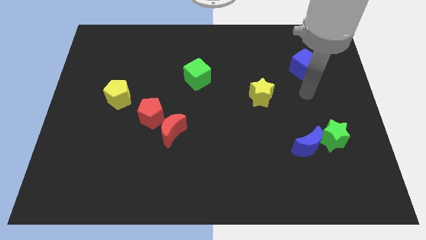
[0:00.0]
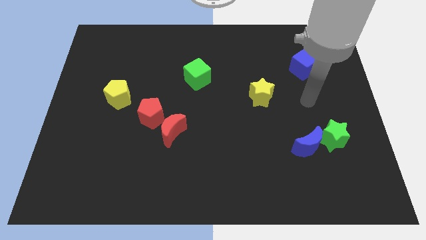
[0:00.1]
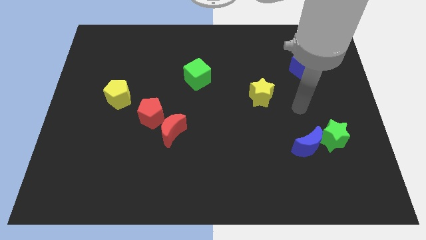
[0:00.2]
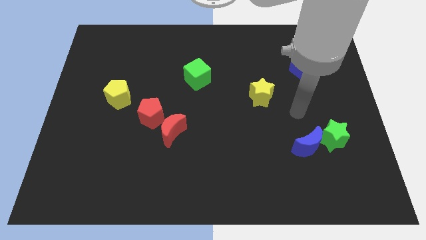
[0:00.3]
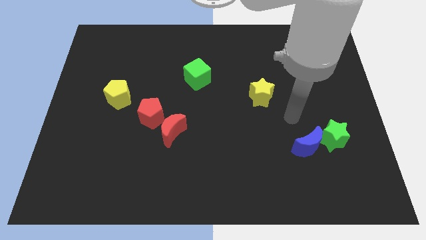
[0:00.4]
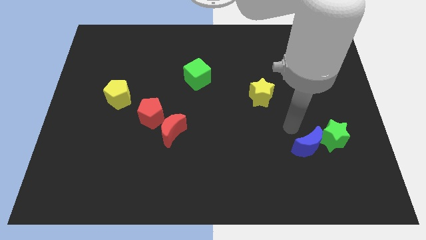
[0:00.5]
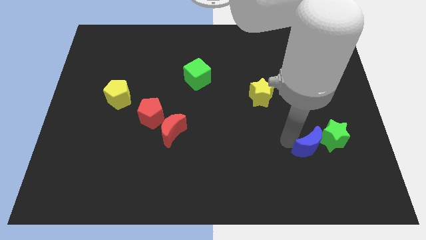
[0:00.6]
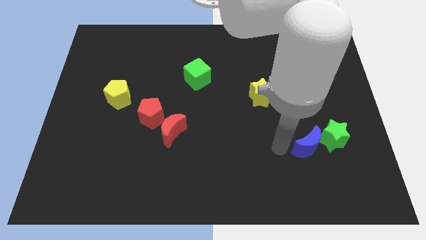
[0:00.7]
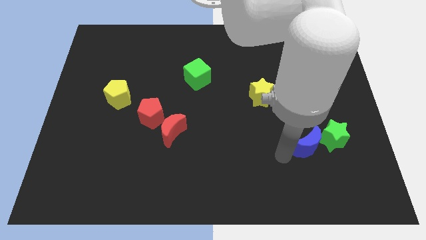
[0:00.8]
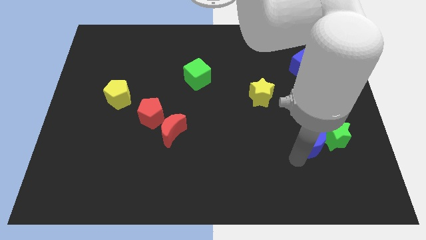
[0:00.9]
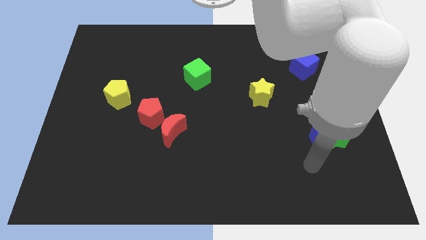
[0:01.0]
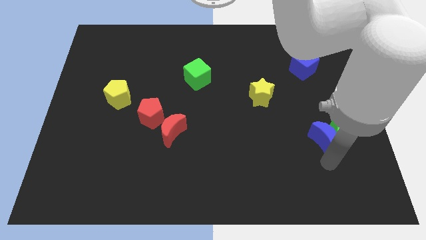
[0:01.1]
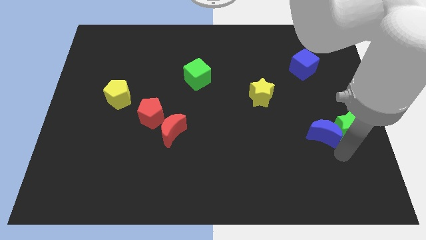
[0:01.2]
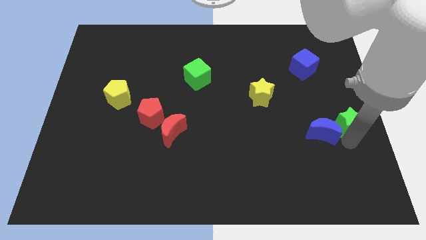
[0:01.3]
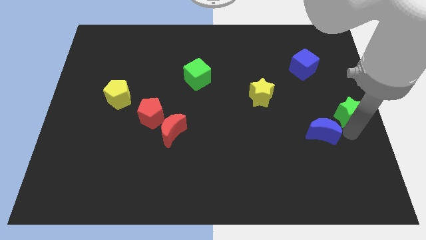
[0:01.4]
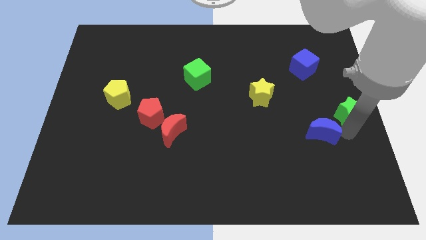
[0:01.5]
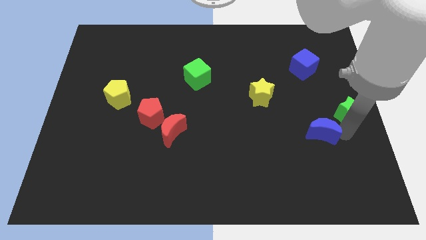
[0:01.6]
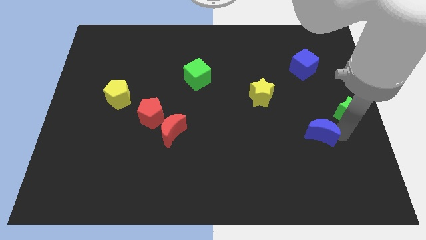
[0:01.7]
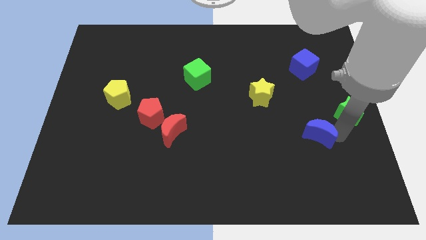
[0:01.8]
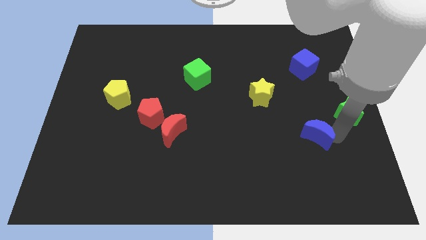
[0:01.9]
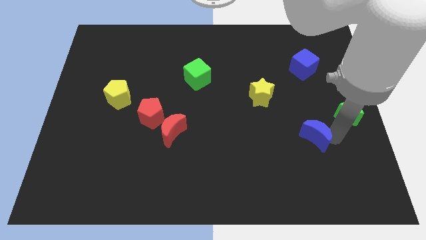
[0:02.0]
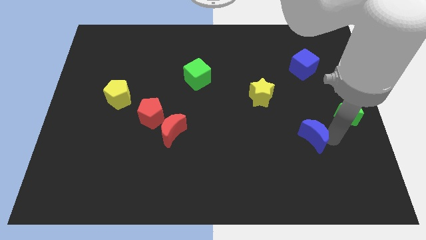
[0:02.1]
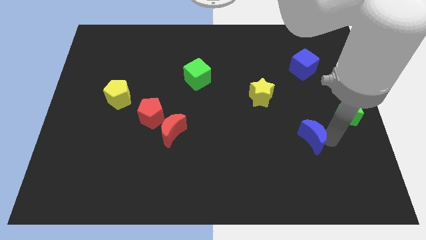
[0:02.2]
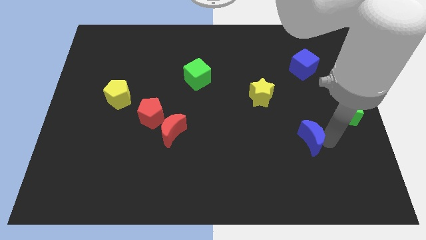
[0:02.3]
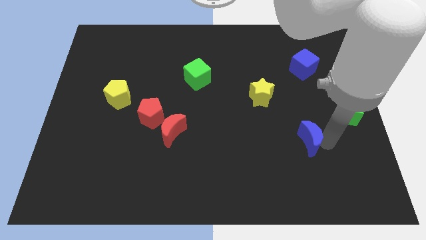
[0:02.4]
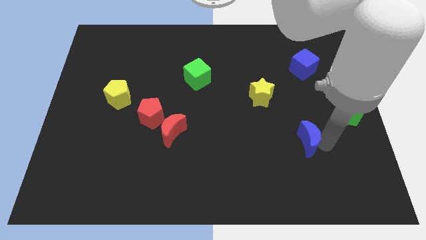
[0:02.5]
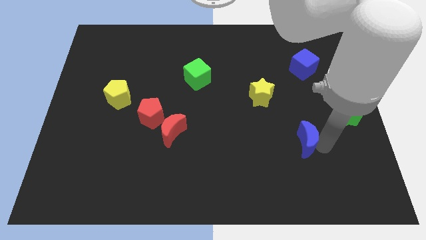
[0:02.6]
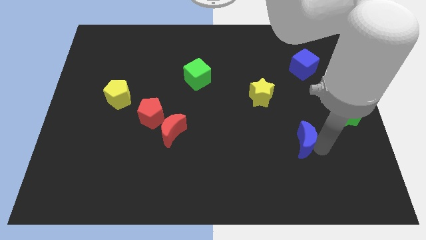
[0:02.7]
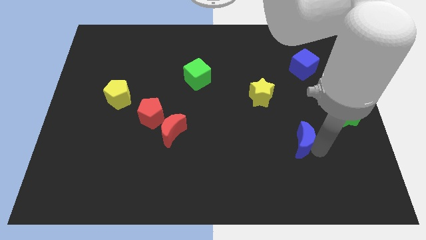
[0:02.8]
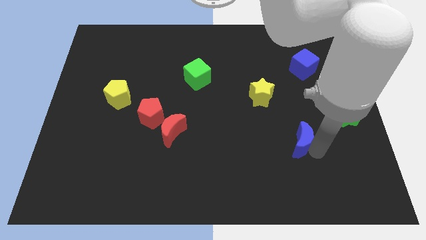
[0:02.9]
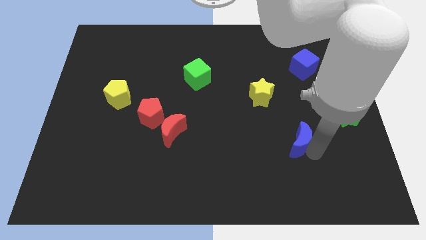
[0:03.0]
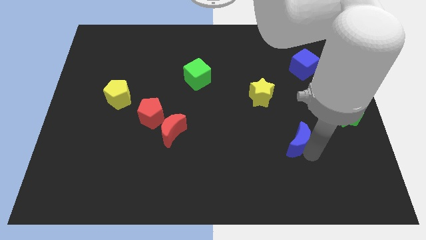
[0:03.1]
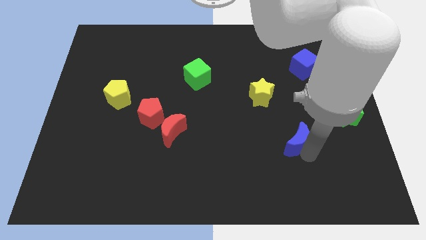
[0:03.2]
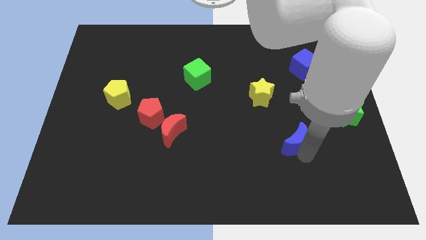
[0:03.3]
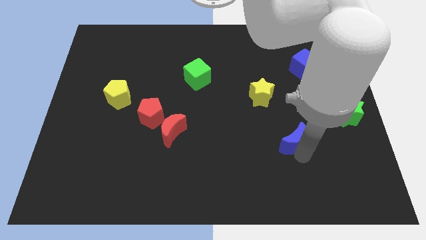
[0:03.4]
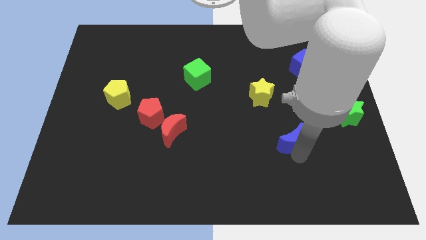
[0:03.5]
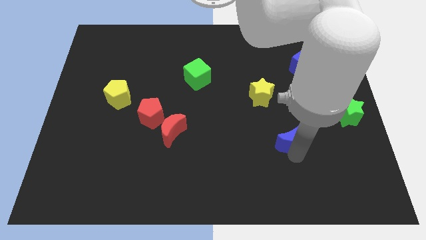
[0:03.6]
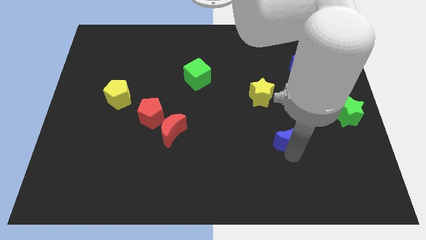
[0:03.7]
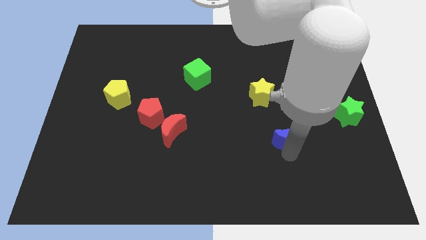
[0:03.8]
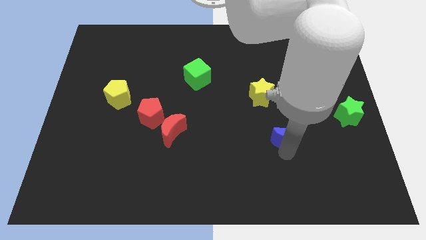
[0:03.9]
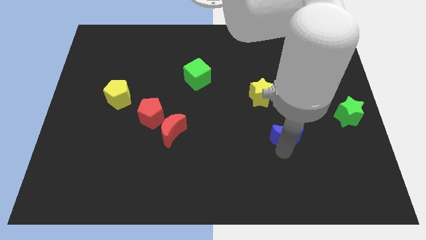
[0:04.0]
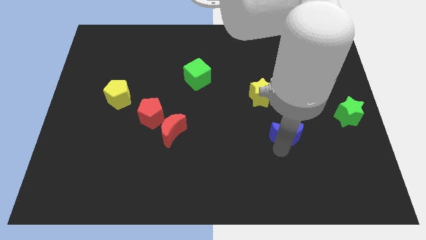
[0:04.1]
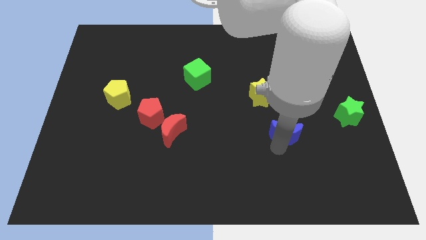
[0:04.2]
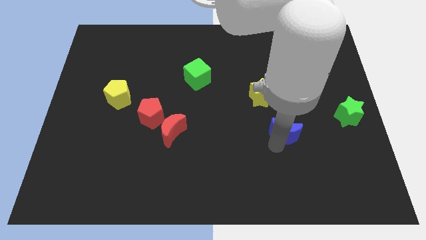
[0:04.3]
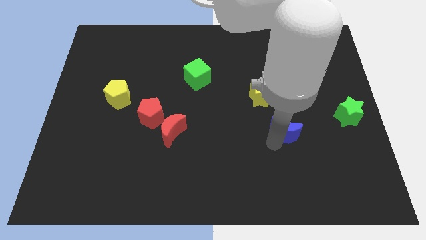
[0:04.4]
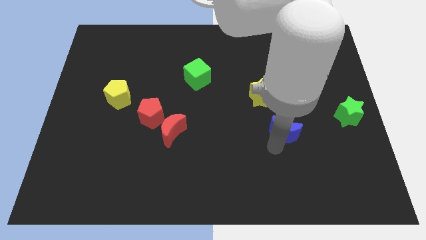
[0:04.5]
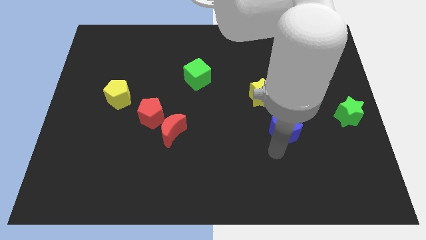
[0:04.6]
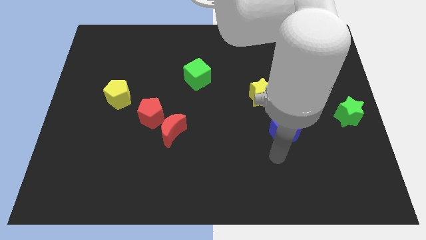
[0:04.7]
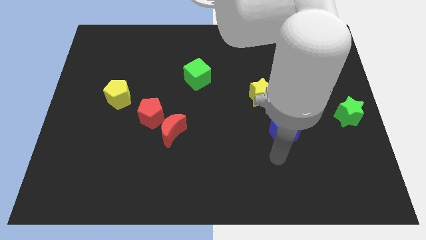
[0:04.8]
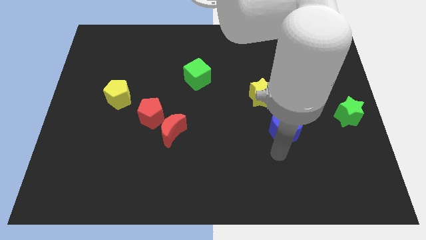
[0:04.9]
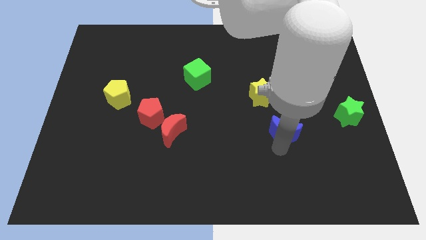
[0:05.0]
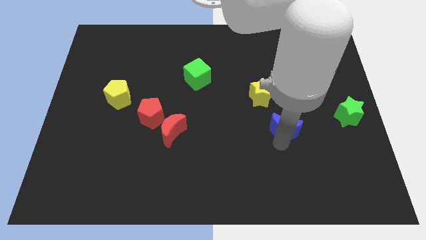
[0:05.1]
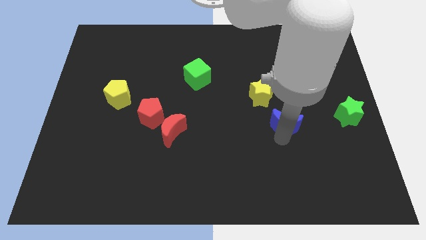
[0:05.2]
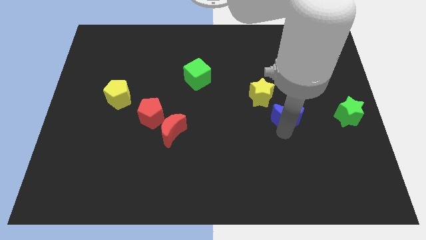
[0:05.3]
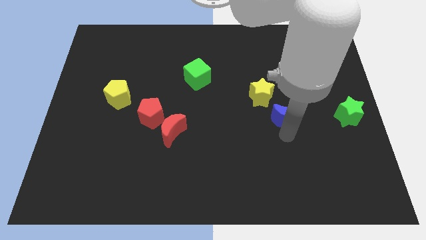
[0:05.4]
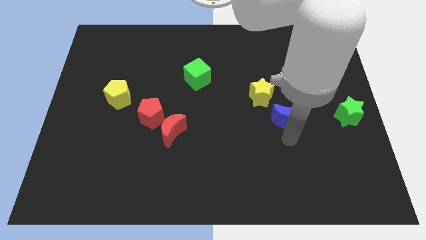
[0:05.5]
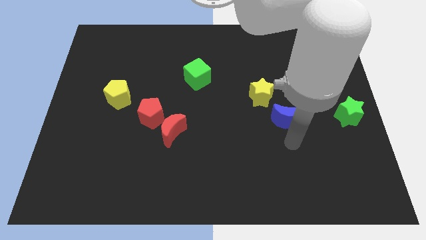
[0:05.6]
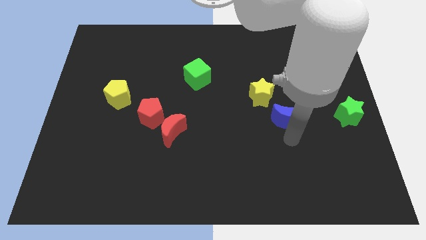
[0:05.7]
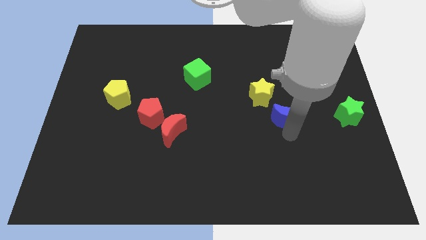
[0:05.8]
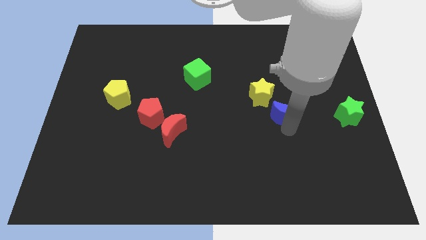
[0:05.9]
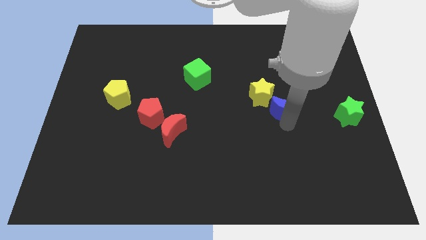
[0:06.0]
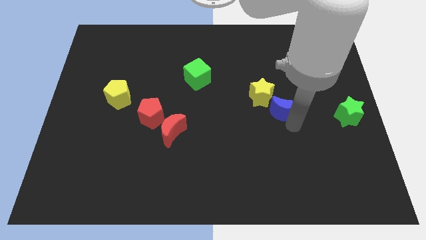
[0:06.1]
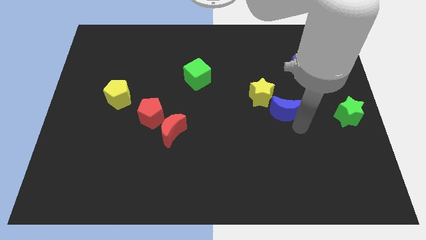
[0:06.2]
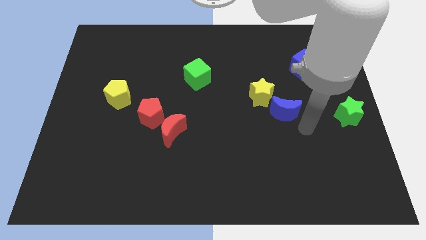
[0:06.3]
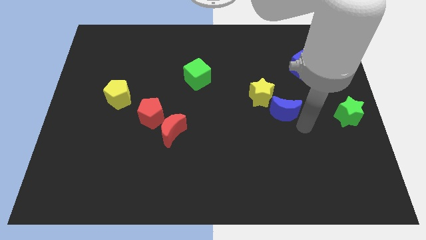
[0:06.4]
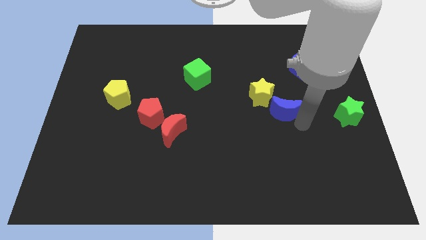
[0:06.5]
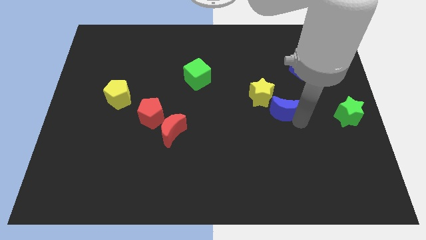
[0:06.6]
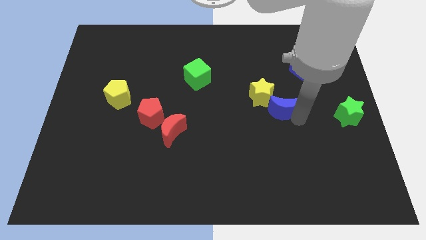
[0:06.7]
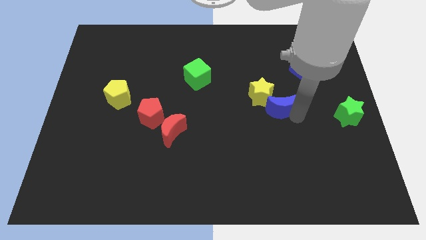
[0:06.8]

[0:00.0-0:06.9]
push the blue moon next to the yellow star
